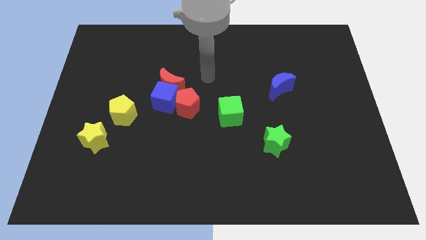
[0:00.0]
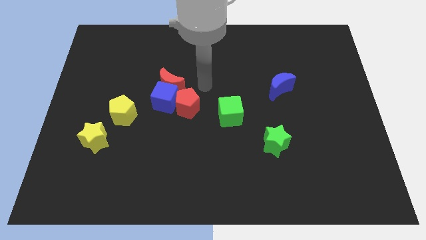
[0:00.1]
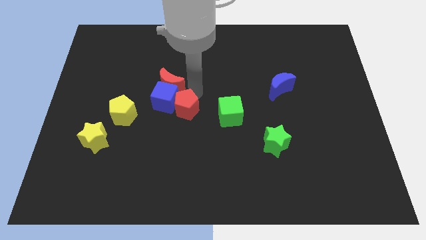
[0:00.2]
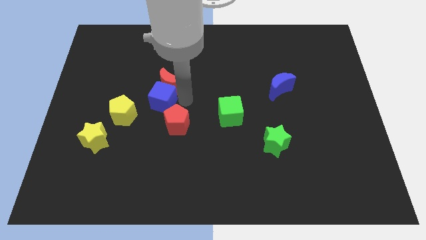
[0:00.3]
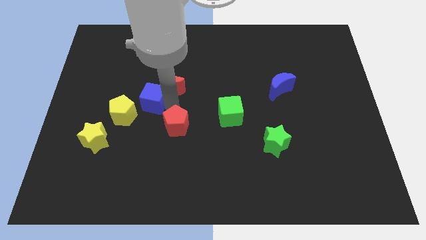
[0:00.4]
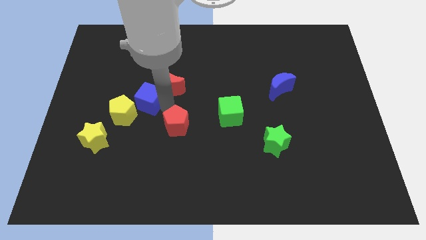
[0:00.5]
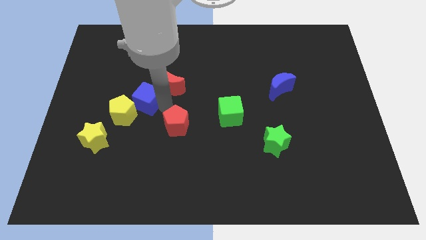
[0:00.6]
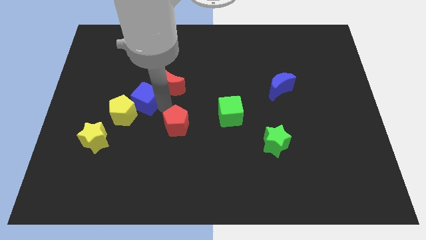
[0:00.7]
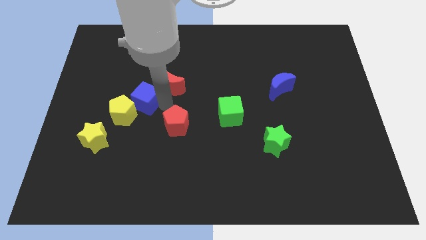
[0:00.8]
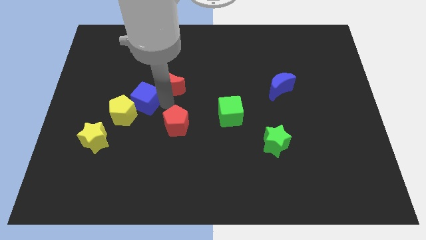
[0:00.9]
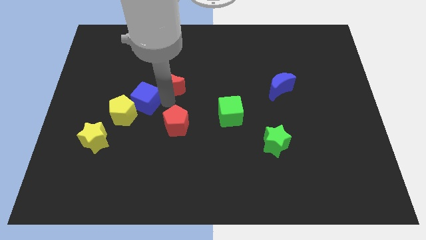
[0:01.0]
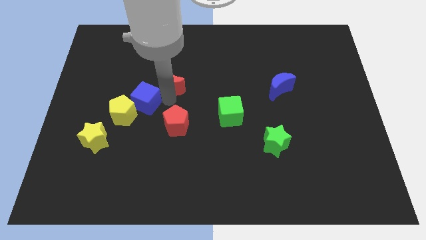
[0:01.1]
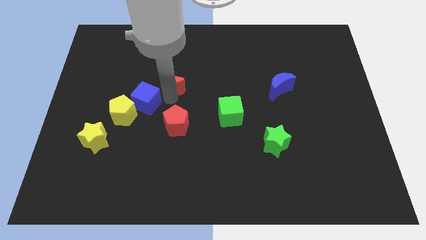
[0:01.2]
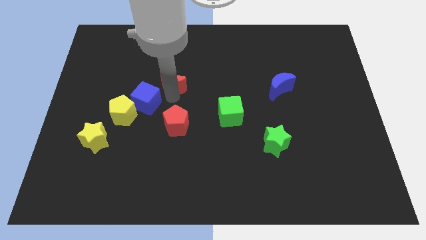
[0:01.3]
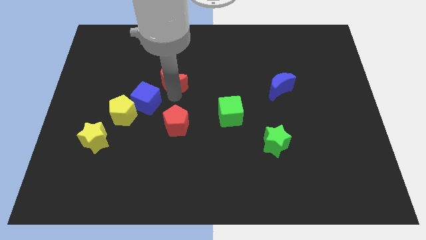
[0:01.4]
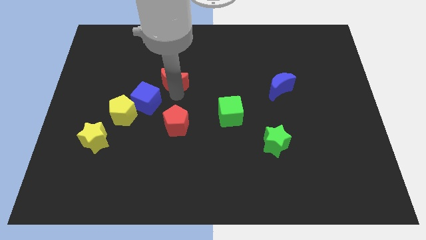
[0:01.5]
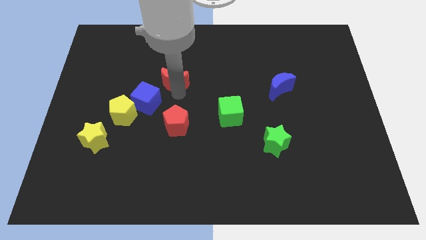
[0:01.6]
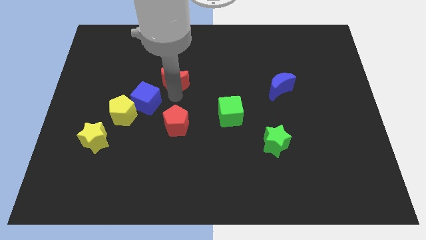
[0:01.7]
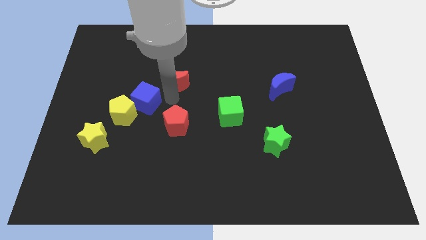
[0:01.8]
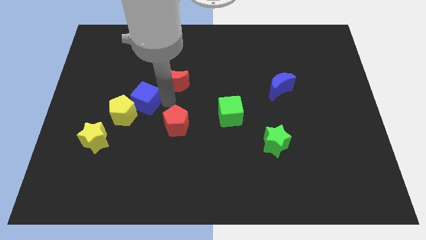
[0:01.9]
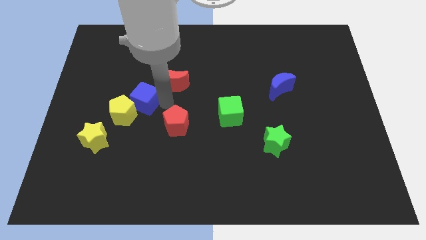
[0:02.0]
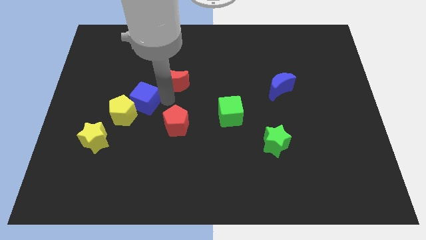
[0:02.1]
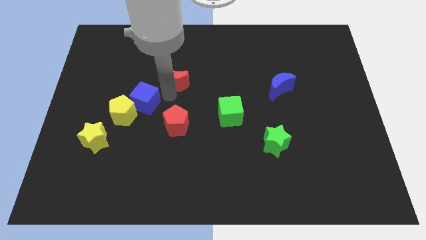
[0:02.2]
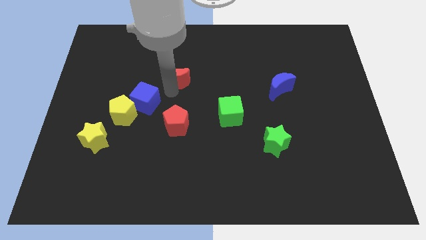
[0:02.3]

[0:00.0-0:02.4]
pull the red moon apart from the blue cube and red pentagon

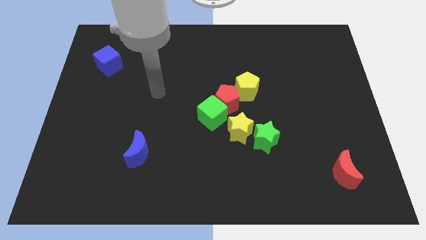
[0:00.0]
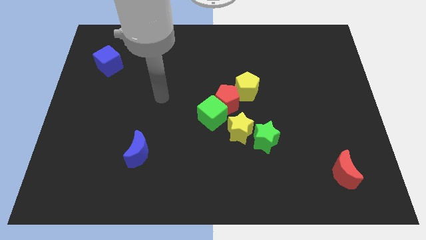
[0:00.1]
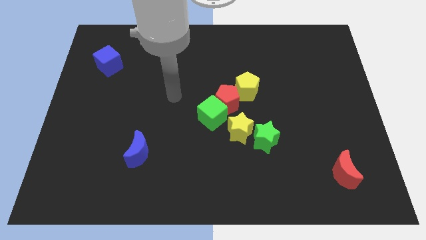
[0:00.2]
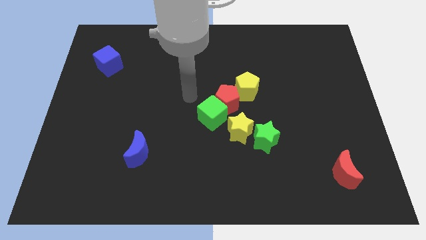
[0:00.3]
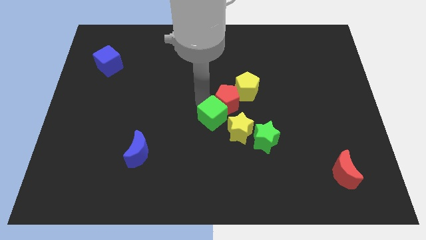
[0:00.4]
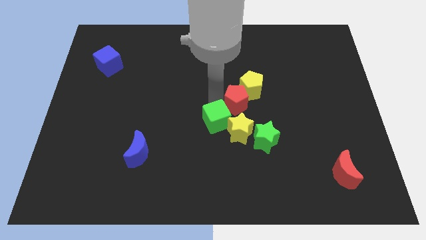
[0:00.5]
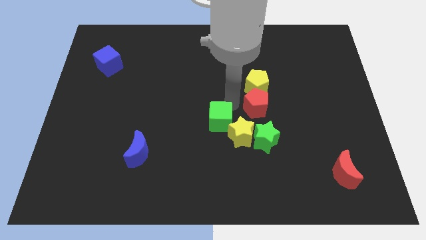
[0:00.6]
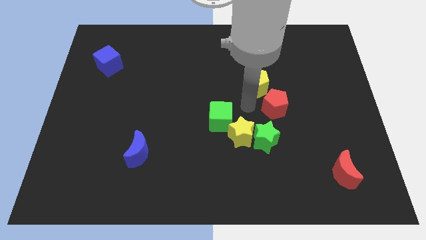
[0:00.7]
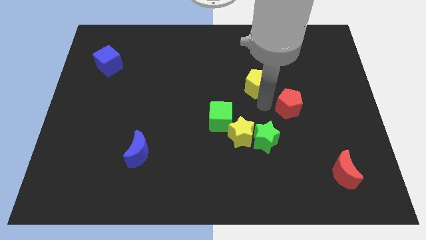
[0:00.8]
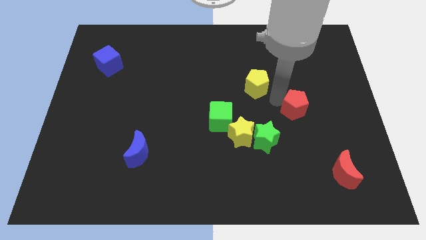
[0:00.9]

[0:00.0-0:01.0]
pull the yellow pentagon apart from the red pentagon

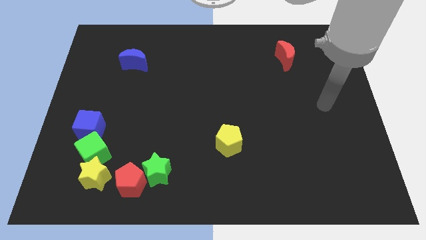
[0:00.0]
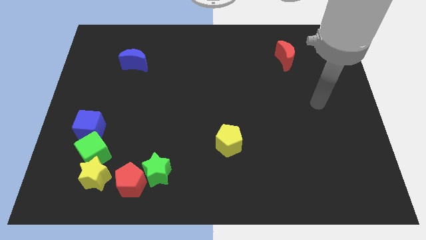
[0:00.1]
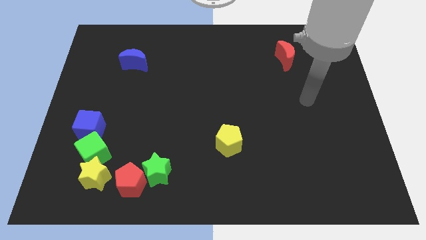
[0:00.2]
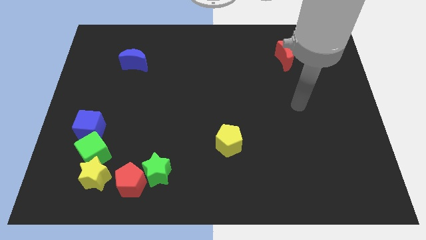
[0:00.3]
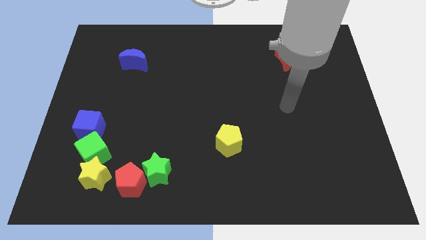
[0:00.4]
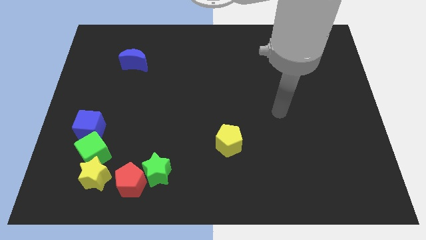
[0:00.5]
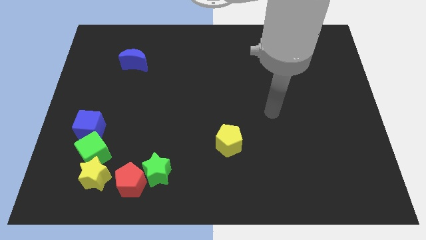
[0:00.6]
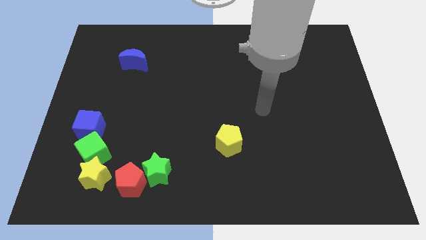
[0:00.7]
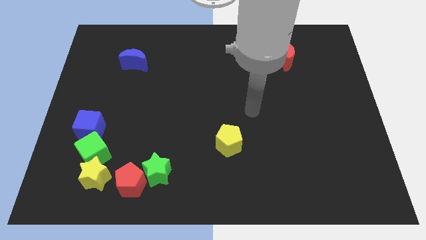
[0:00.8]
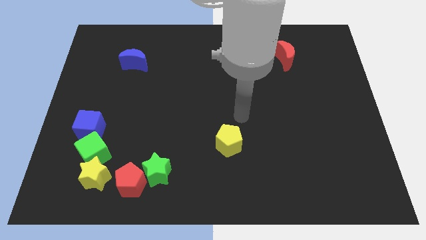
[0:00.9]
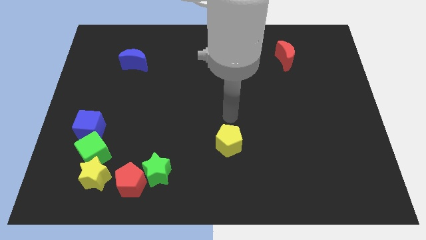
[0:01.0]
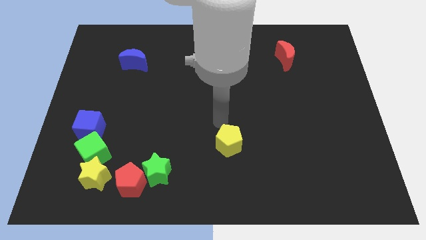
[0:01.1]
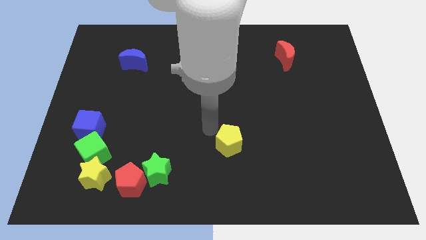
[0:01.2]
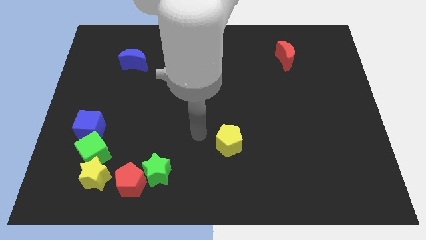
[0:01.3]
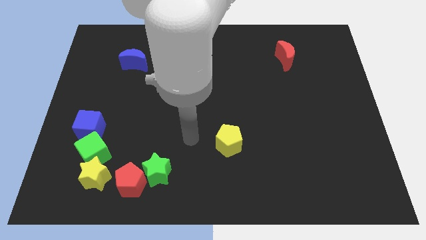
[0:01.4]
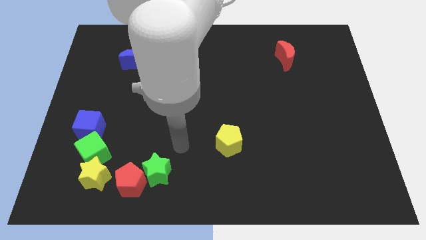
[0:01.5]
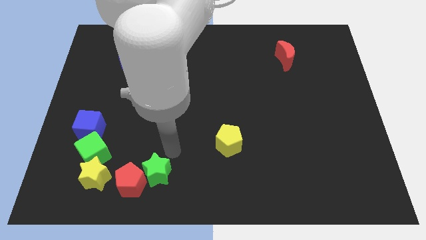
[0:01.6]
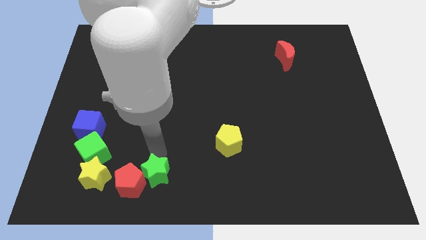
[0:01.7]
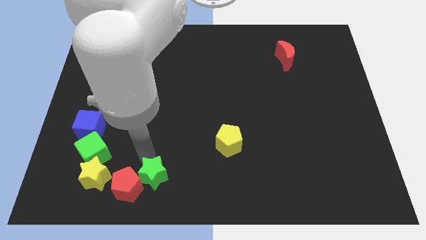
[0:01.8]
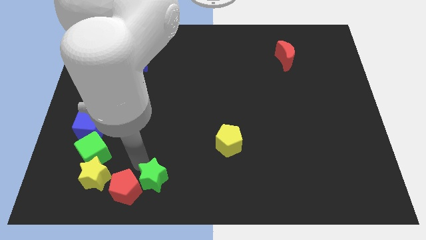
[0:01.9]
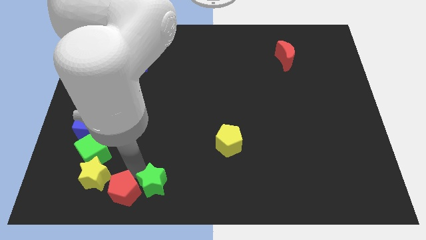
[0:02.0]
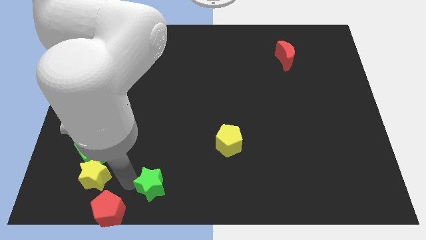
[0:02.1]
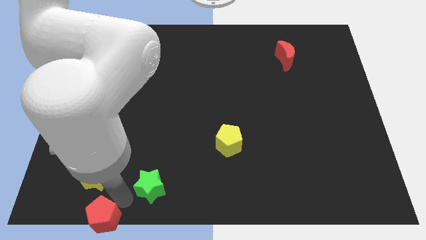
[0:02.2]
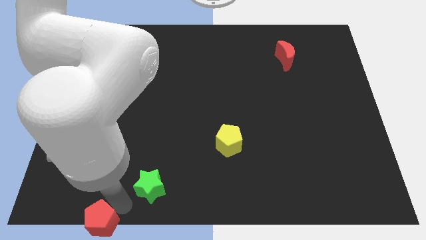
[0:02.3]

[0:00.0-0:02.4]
separate the green star from the red pentagon

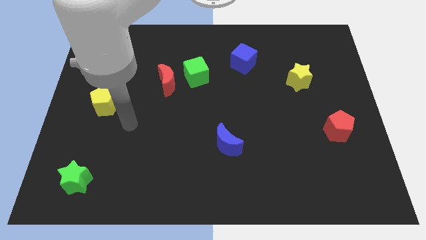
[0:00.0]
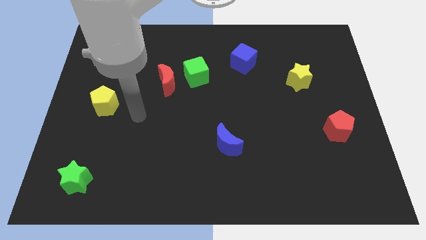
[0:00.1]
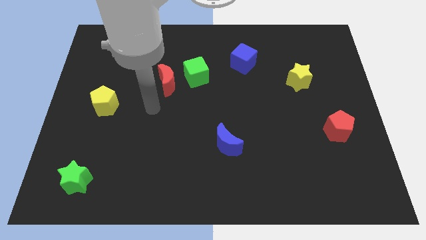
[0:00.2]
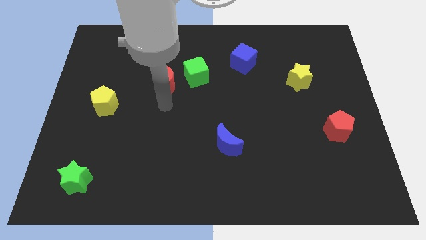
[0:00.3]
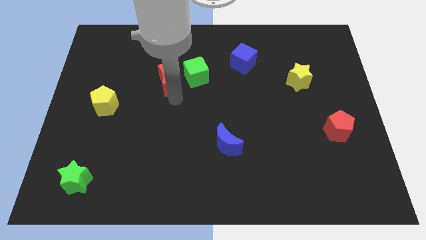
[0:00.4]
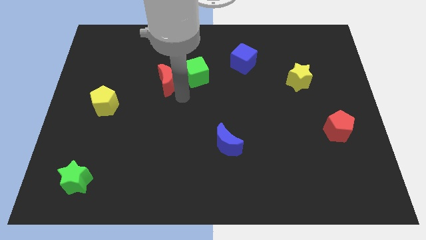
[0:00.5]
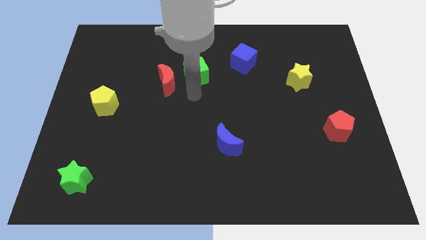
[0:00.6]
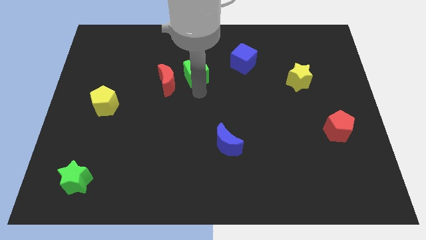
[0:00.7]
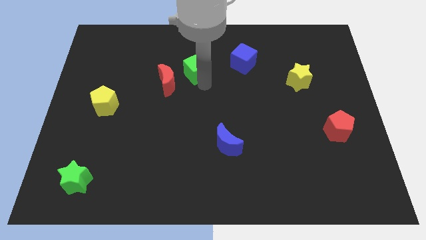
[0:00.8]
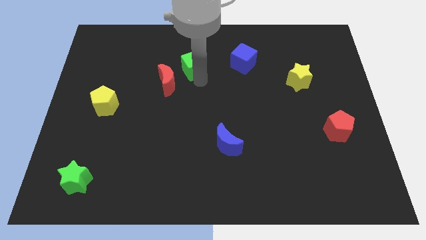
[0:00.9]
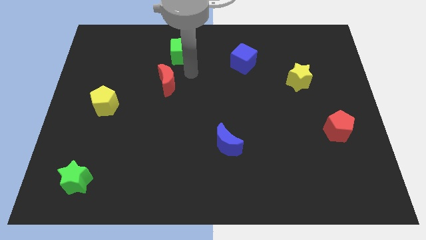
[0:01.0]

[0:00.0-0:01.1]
move the red moon away from the green cube

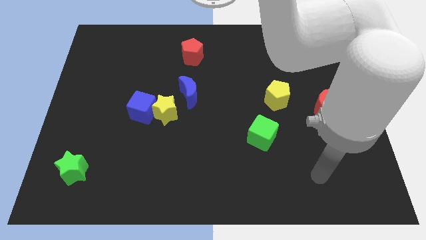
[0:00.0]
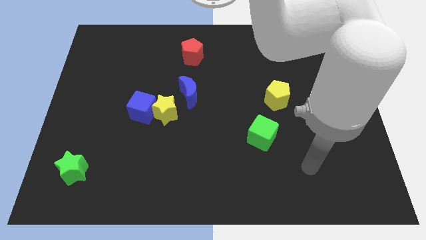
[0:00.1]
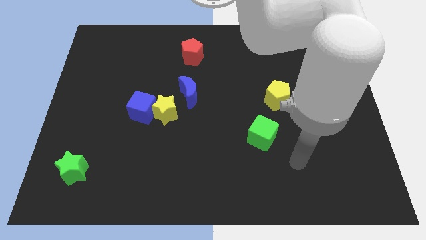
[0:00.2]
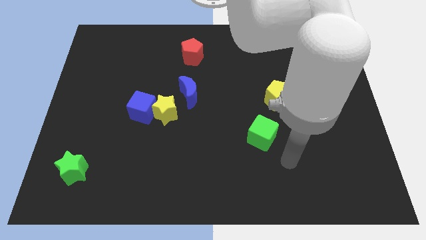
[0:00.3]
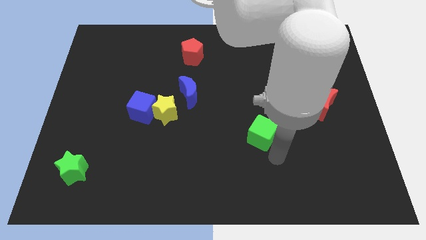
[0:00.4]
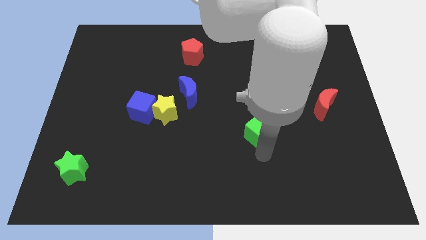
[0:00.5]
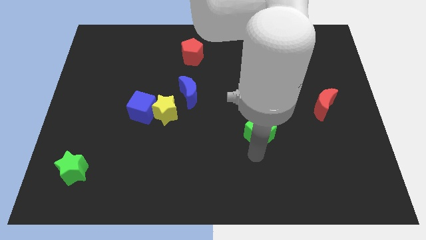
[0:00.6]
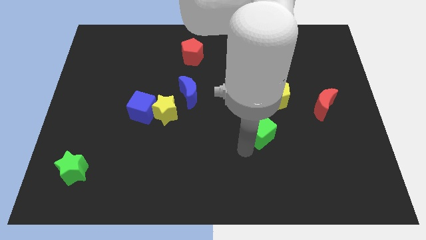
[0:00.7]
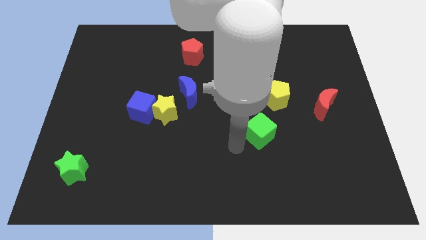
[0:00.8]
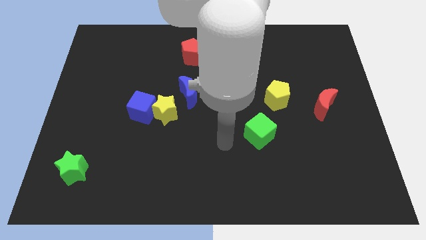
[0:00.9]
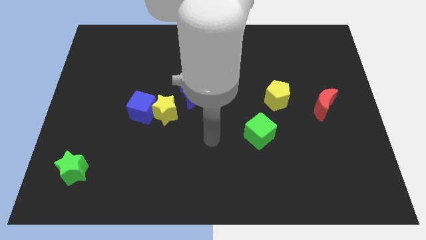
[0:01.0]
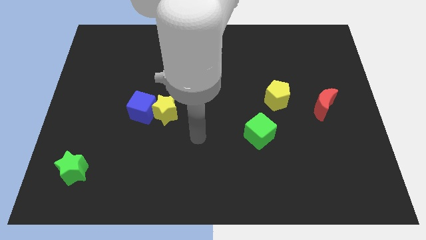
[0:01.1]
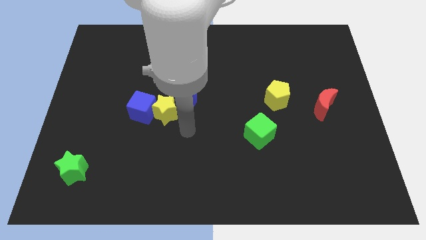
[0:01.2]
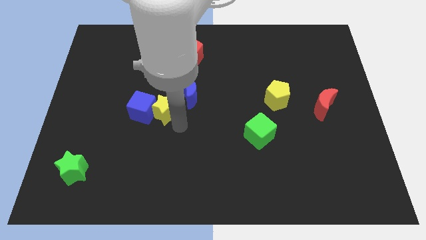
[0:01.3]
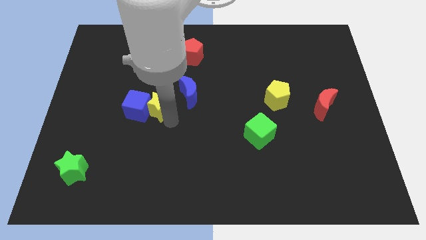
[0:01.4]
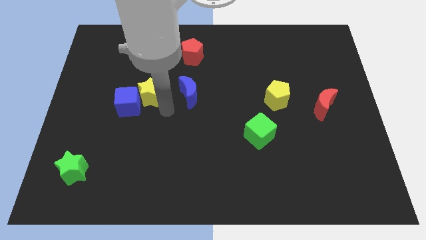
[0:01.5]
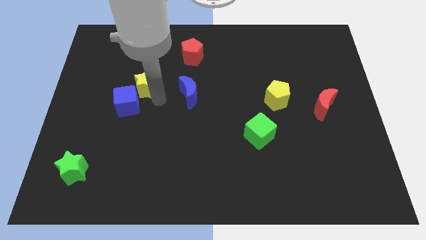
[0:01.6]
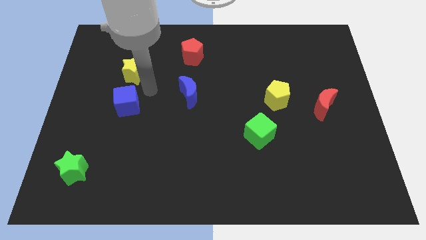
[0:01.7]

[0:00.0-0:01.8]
separate the blue cube from the yellow star

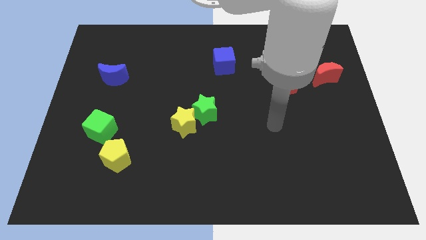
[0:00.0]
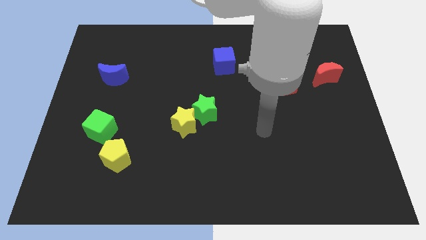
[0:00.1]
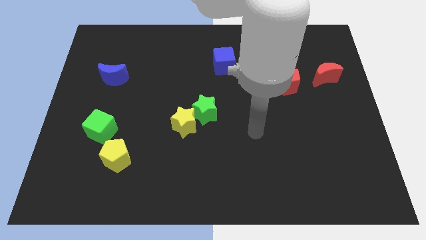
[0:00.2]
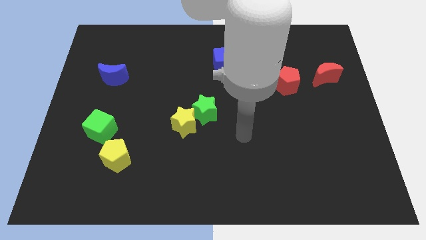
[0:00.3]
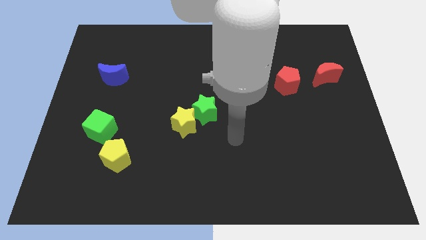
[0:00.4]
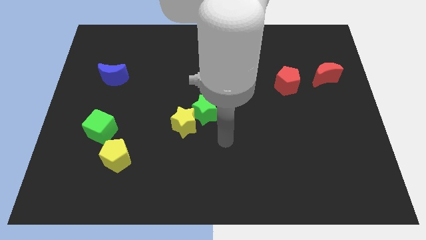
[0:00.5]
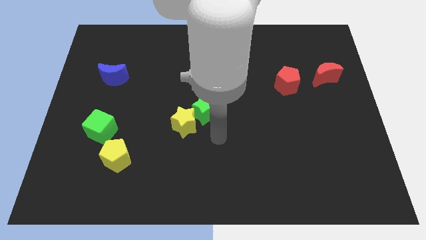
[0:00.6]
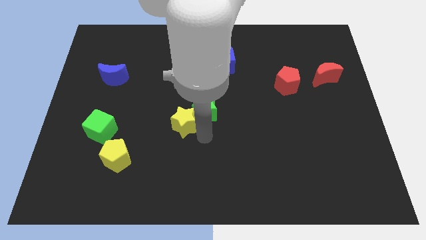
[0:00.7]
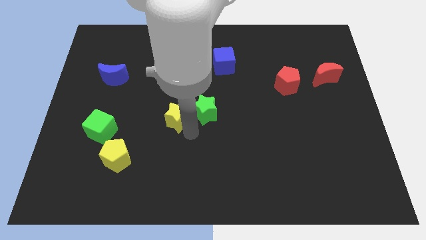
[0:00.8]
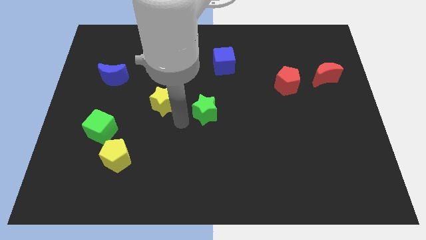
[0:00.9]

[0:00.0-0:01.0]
pull the green star apart from the yellow star
